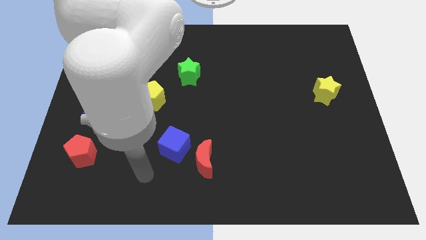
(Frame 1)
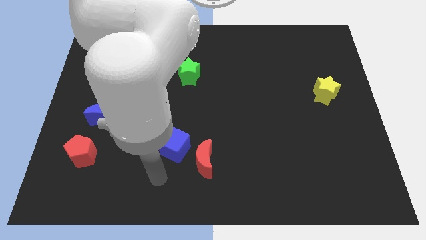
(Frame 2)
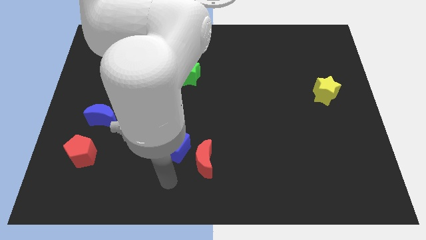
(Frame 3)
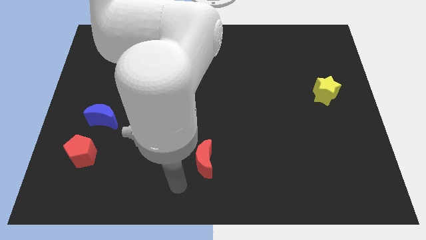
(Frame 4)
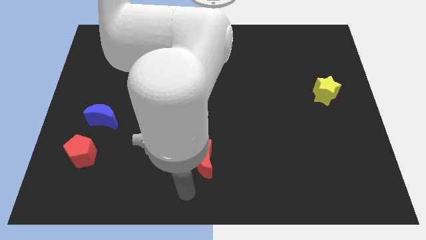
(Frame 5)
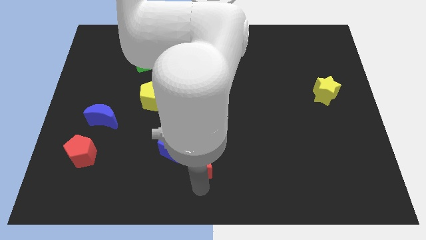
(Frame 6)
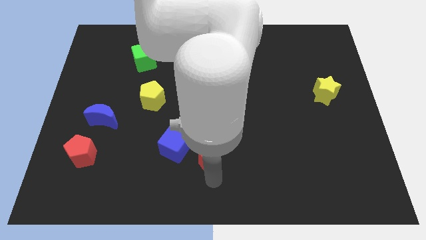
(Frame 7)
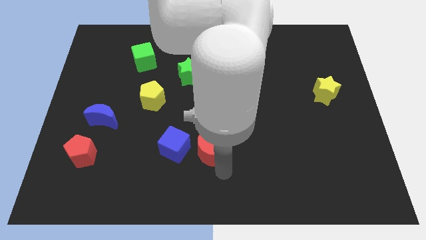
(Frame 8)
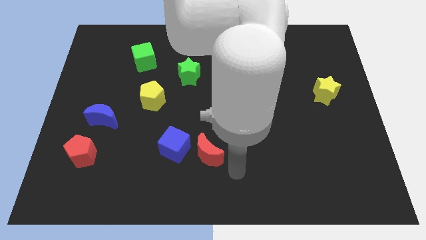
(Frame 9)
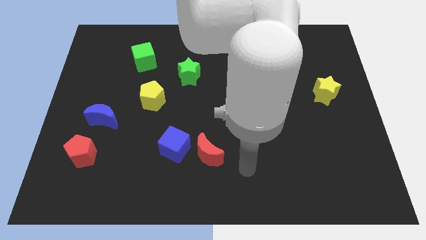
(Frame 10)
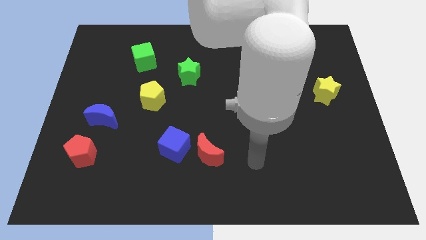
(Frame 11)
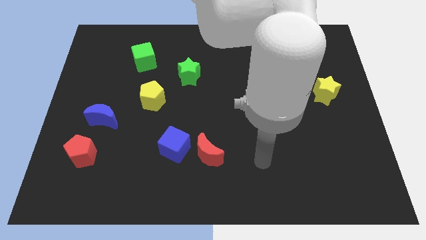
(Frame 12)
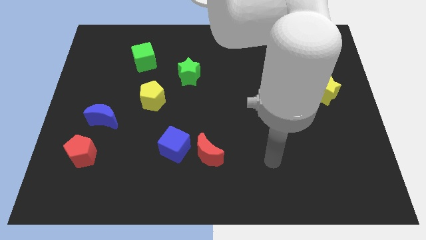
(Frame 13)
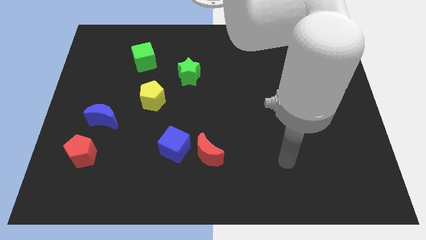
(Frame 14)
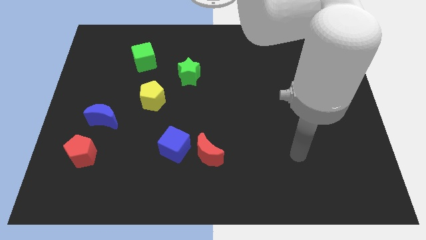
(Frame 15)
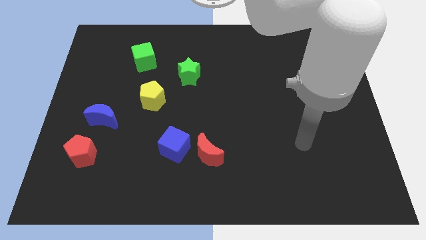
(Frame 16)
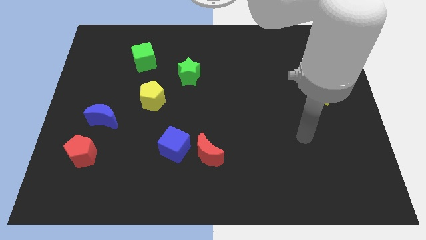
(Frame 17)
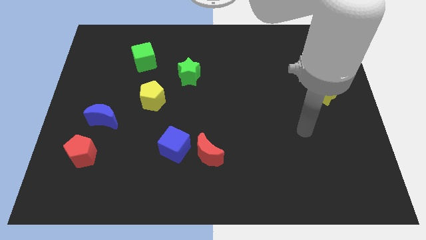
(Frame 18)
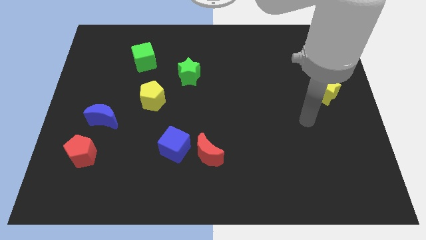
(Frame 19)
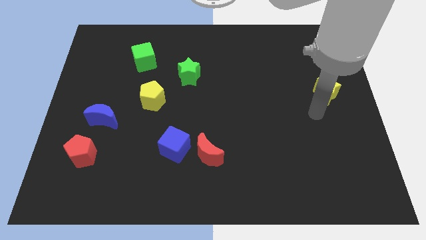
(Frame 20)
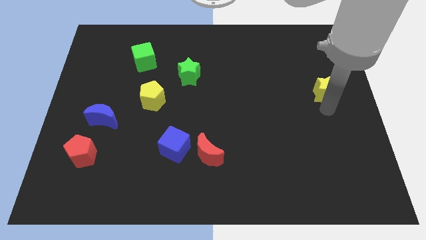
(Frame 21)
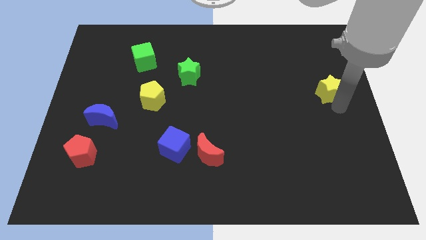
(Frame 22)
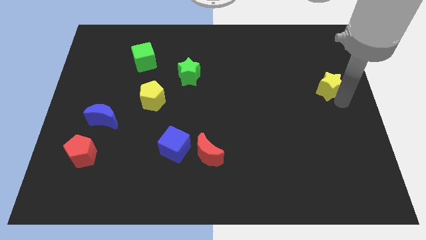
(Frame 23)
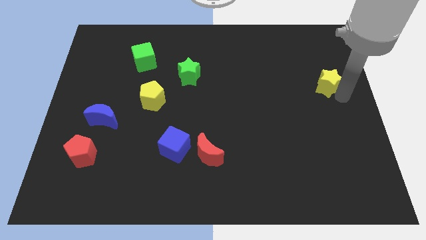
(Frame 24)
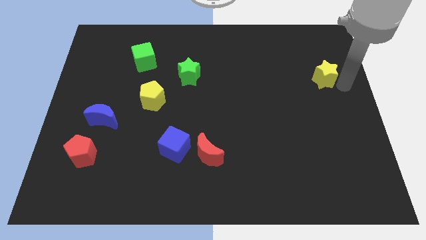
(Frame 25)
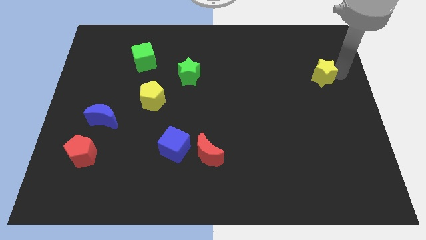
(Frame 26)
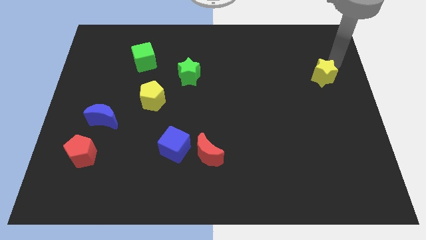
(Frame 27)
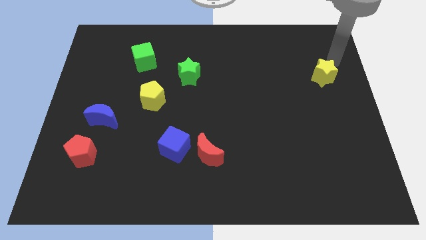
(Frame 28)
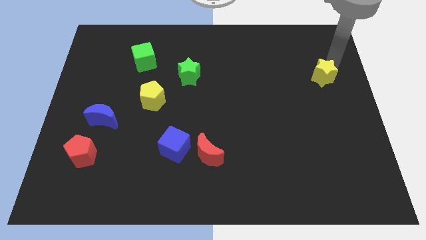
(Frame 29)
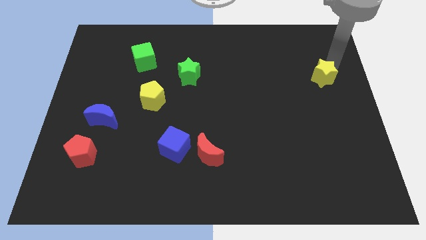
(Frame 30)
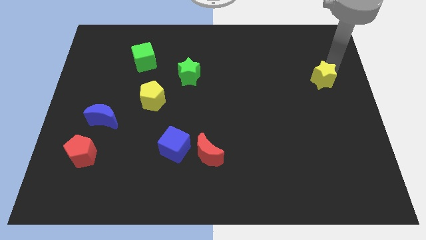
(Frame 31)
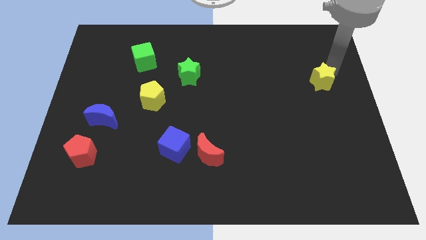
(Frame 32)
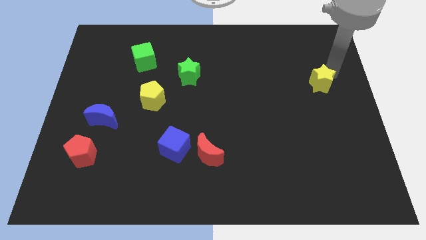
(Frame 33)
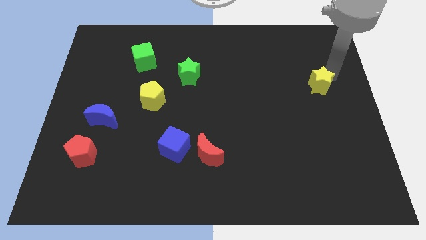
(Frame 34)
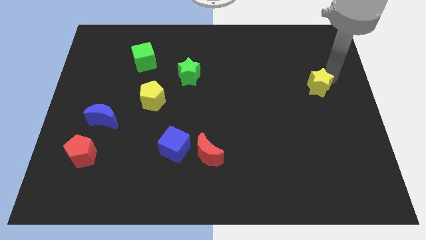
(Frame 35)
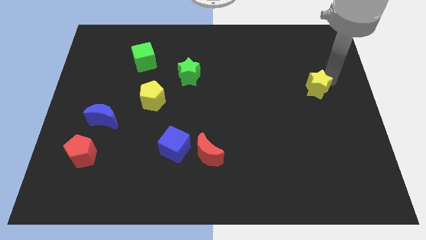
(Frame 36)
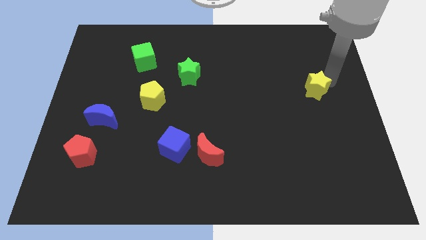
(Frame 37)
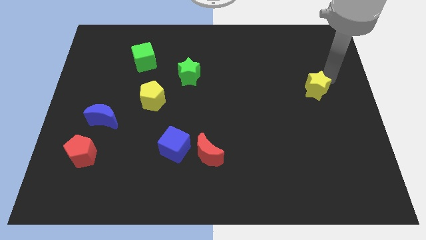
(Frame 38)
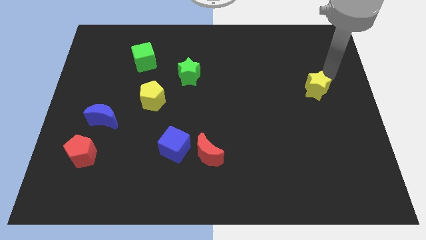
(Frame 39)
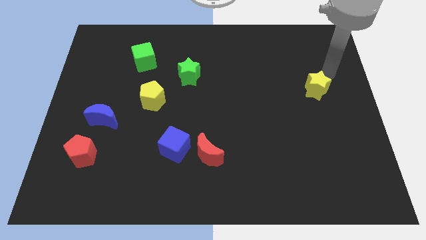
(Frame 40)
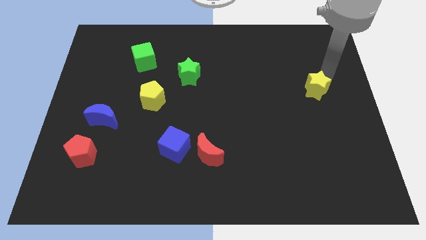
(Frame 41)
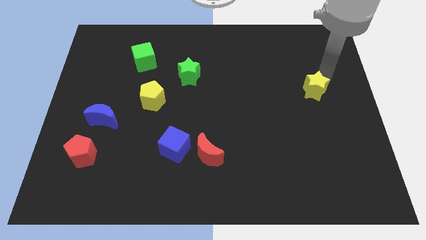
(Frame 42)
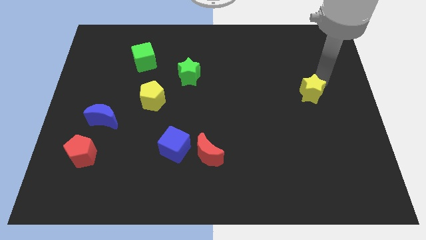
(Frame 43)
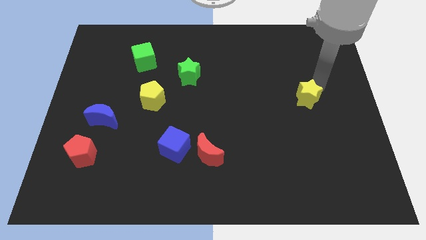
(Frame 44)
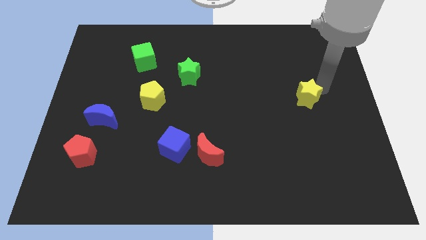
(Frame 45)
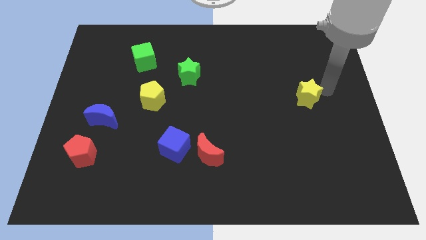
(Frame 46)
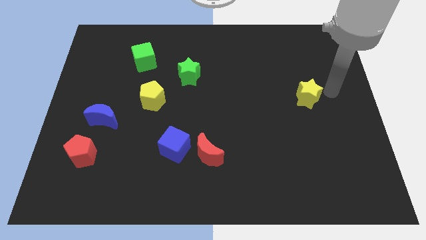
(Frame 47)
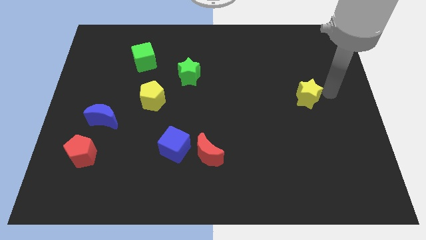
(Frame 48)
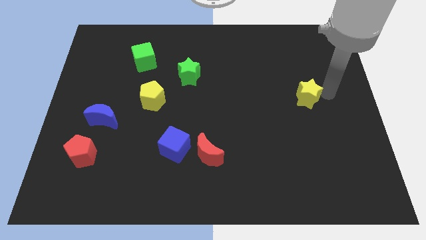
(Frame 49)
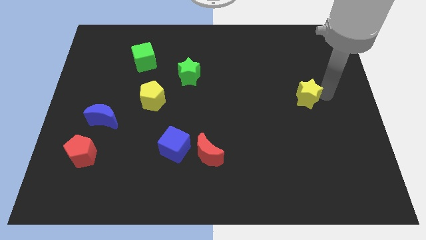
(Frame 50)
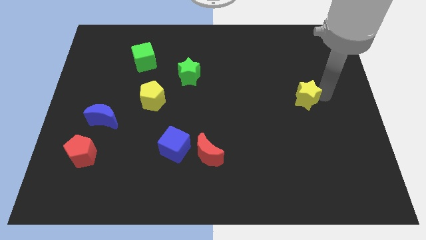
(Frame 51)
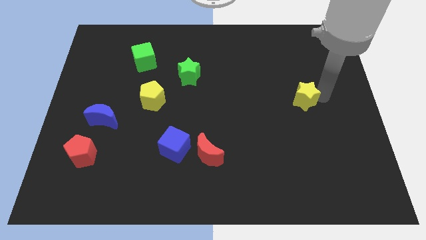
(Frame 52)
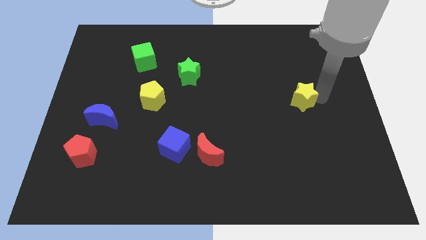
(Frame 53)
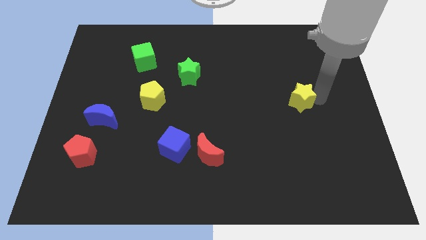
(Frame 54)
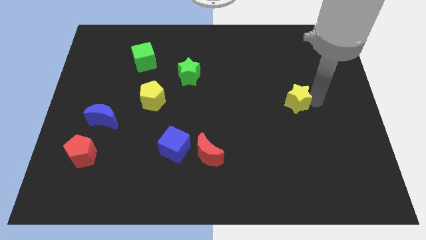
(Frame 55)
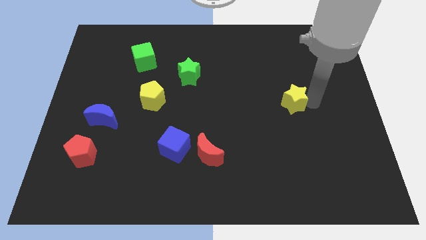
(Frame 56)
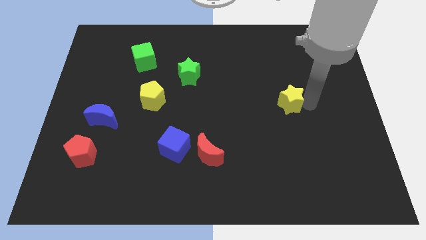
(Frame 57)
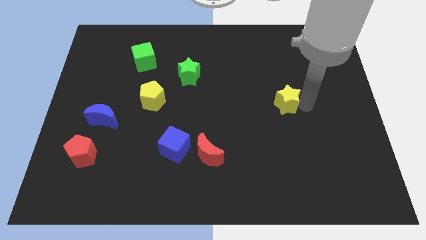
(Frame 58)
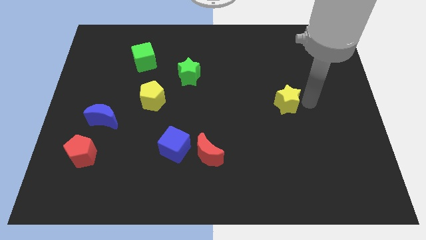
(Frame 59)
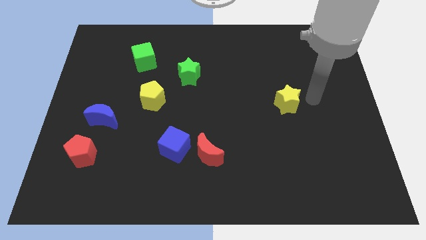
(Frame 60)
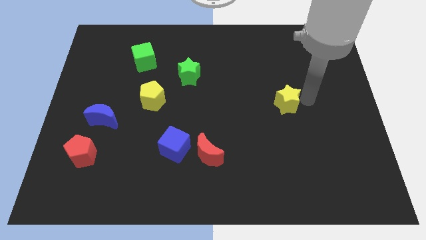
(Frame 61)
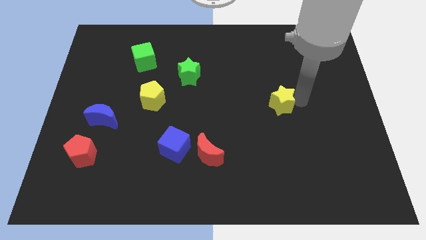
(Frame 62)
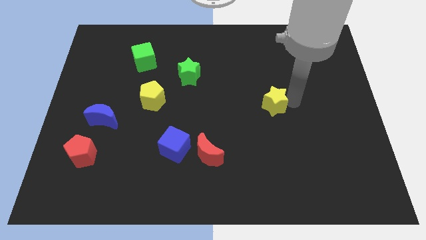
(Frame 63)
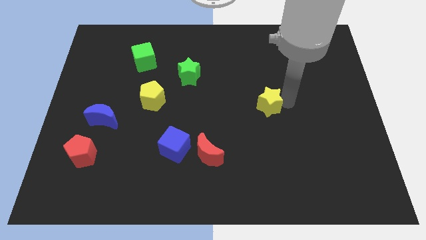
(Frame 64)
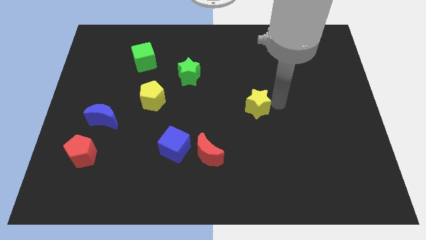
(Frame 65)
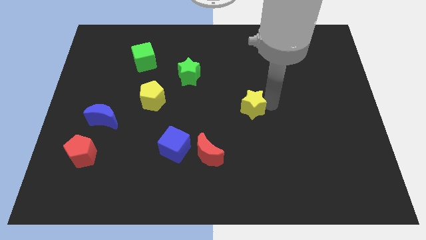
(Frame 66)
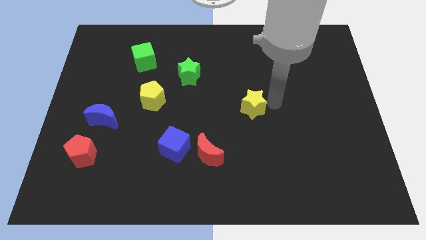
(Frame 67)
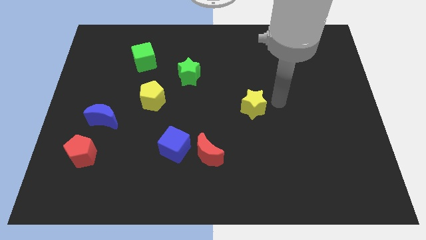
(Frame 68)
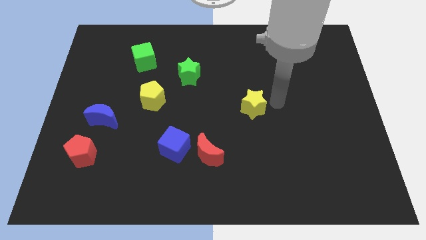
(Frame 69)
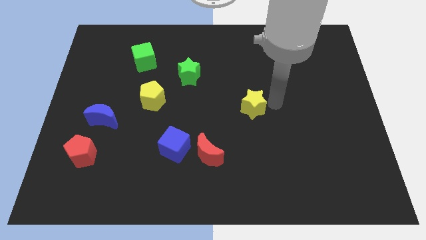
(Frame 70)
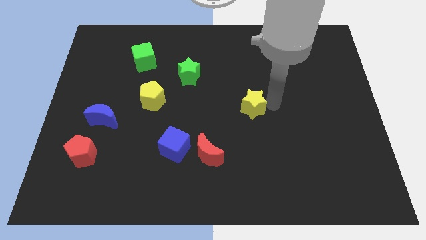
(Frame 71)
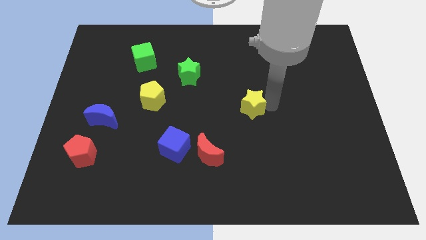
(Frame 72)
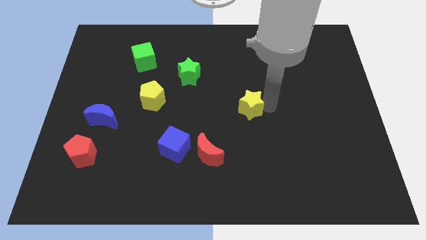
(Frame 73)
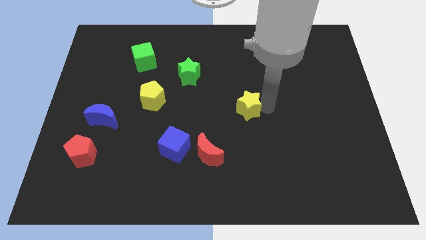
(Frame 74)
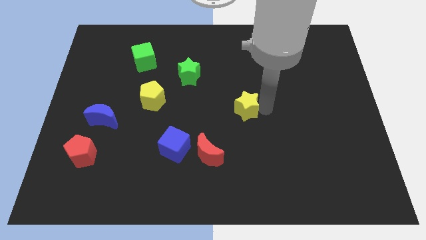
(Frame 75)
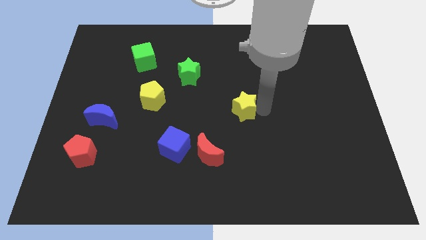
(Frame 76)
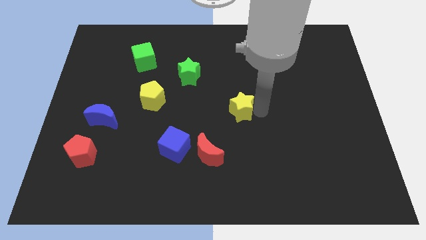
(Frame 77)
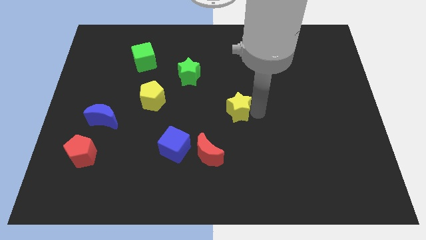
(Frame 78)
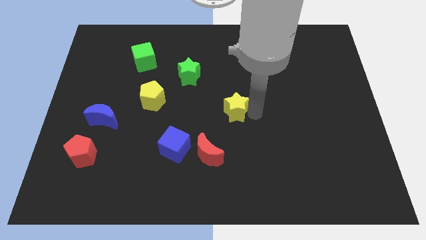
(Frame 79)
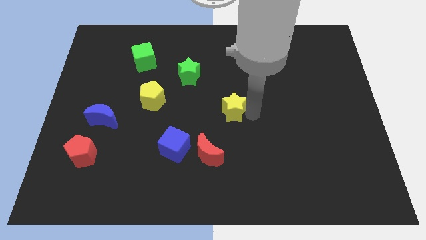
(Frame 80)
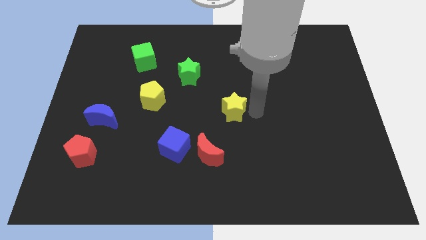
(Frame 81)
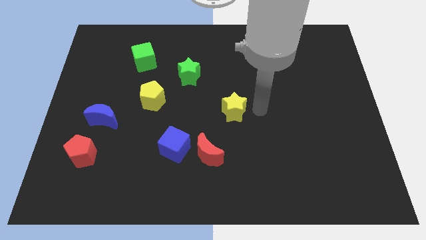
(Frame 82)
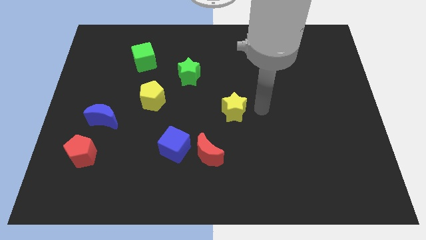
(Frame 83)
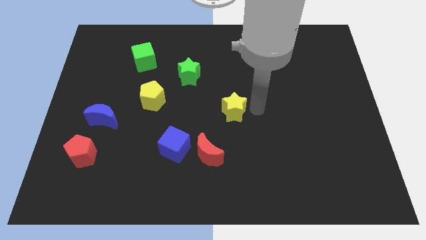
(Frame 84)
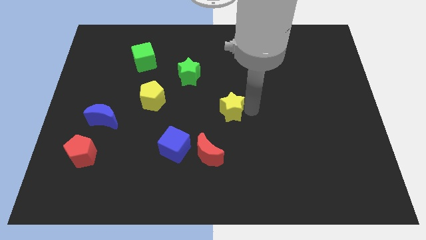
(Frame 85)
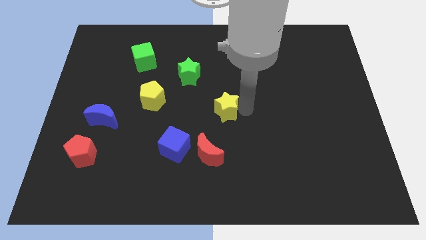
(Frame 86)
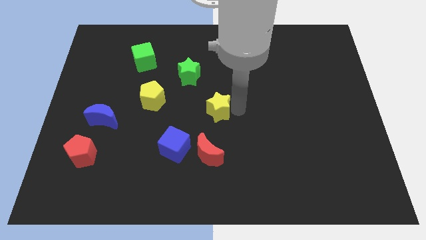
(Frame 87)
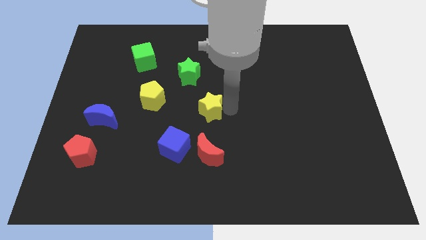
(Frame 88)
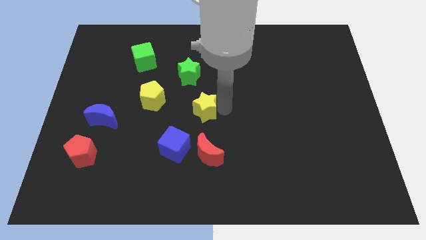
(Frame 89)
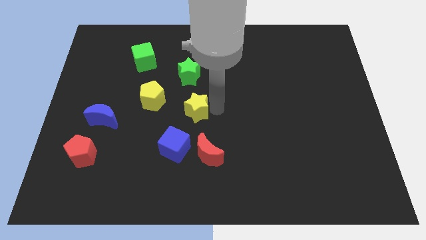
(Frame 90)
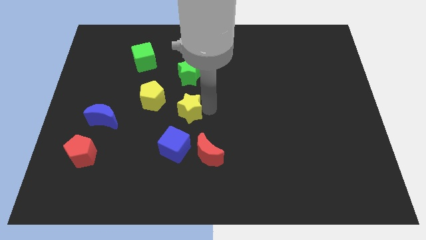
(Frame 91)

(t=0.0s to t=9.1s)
put the yellow star diagonally down and to the right of the yellow pentagon
